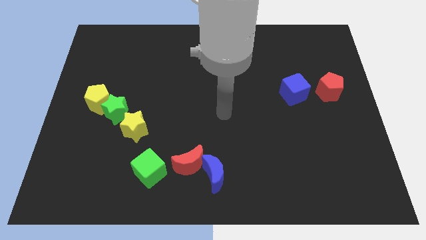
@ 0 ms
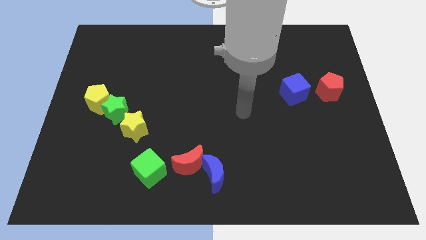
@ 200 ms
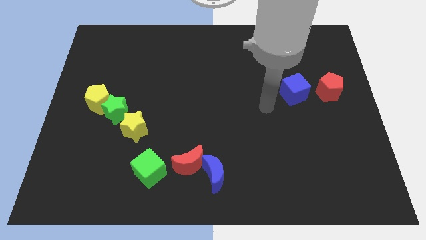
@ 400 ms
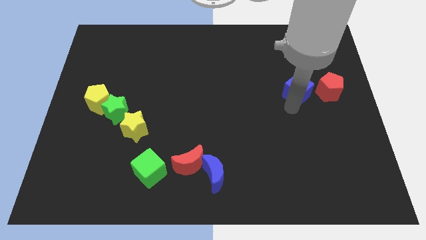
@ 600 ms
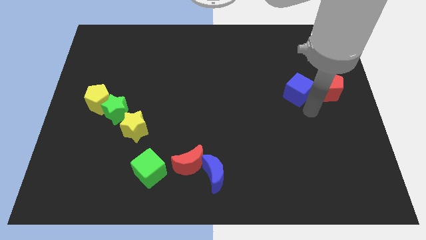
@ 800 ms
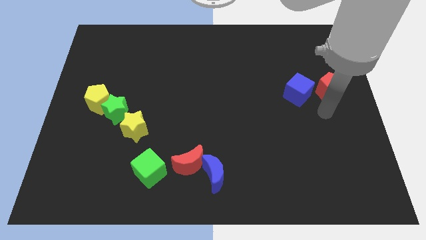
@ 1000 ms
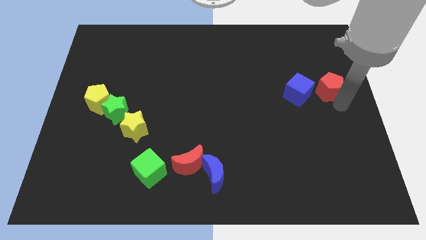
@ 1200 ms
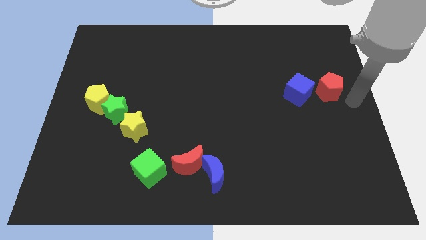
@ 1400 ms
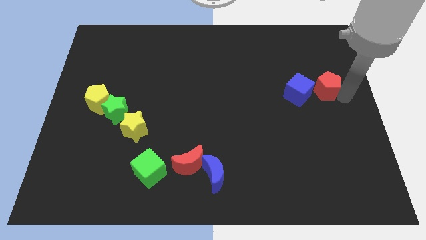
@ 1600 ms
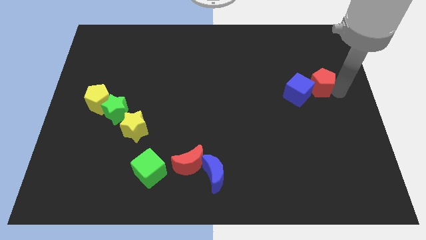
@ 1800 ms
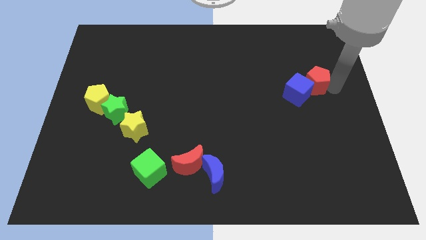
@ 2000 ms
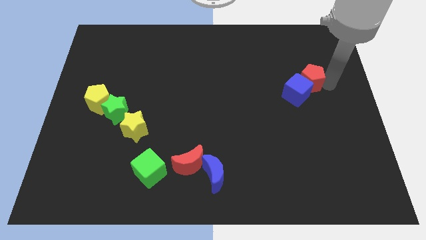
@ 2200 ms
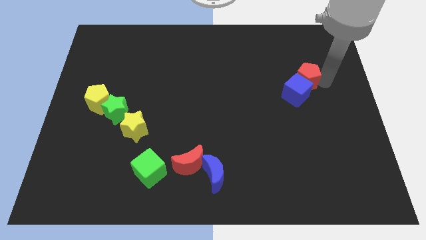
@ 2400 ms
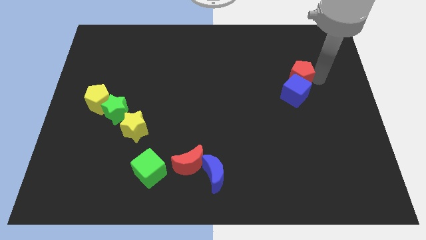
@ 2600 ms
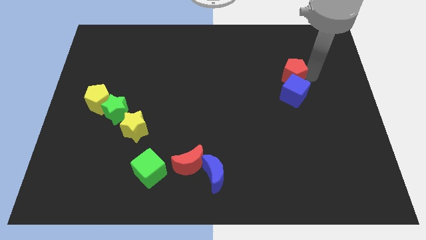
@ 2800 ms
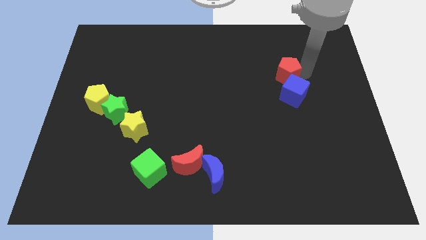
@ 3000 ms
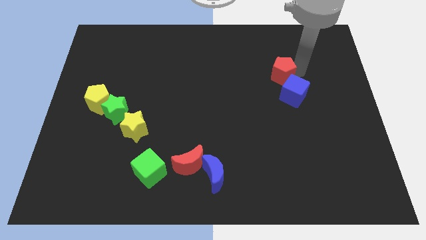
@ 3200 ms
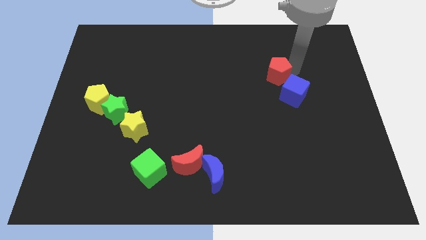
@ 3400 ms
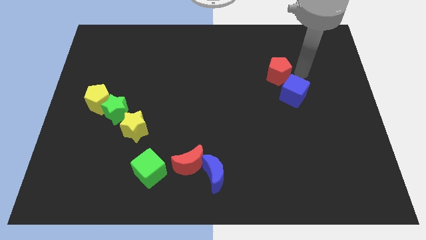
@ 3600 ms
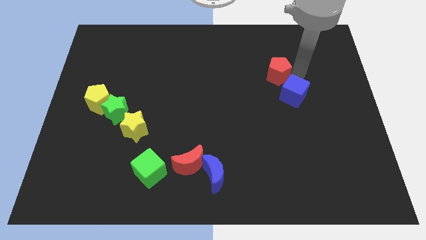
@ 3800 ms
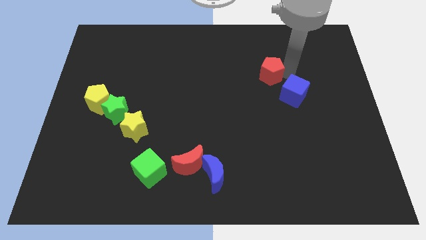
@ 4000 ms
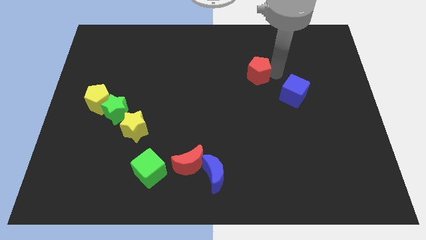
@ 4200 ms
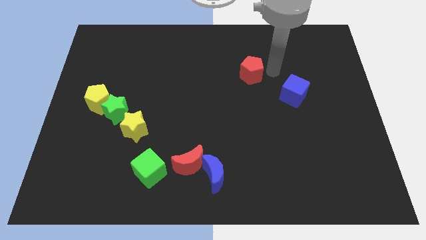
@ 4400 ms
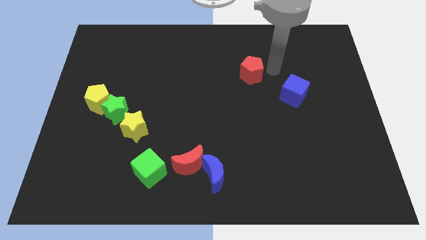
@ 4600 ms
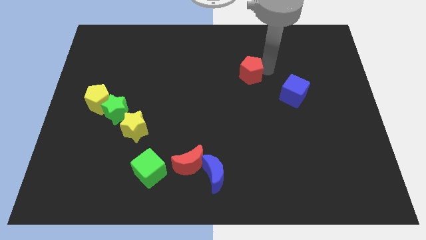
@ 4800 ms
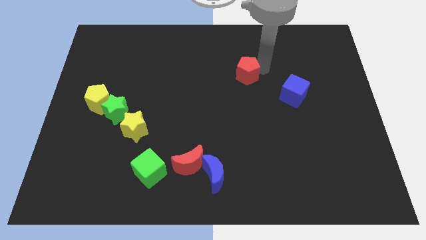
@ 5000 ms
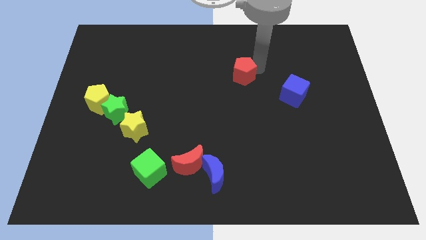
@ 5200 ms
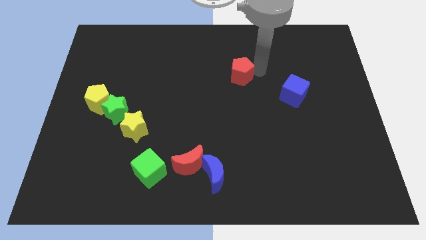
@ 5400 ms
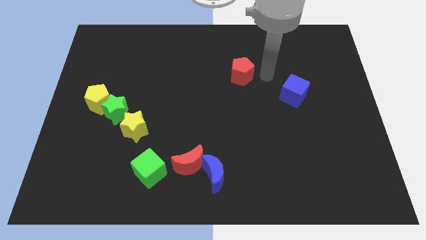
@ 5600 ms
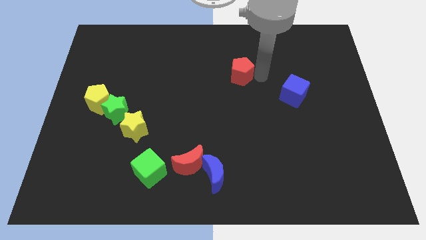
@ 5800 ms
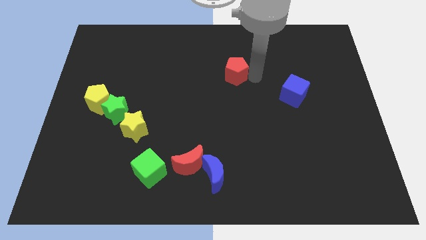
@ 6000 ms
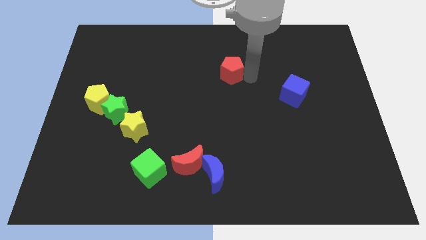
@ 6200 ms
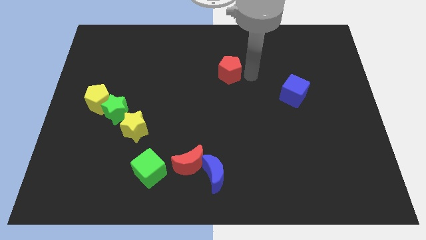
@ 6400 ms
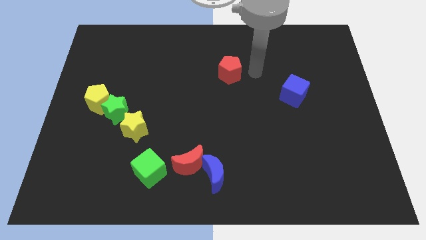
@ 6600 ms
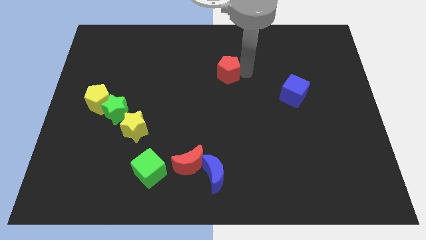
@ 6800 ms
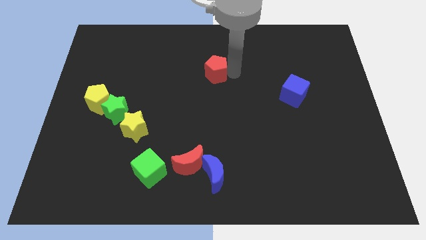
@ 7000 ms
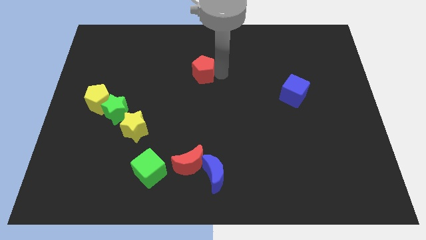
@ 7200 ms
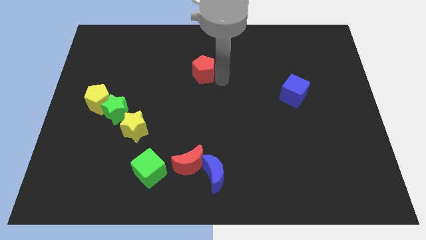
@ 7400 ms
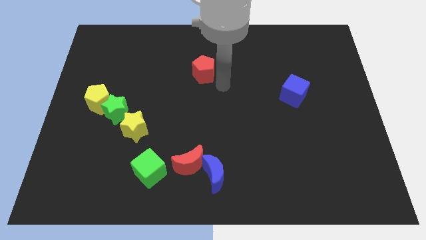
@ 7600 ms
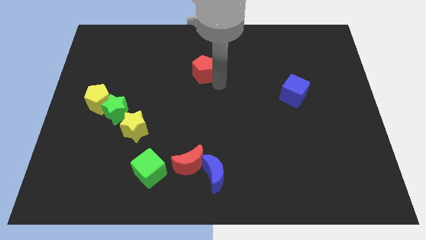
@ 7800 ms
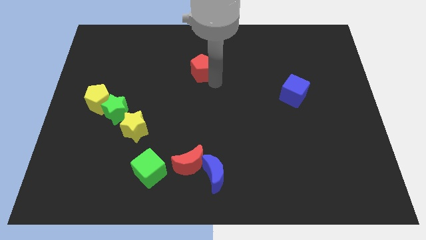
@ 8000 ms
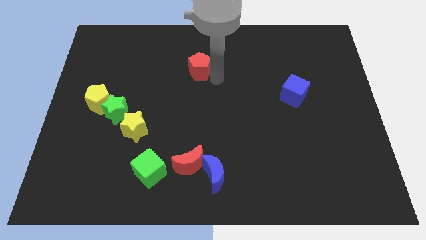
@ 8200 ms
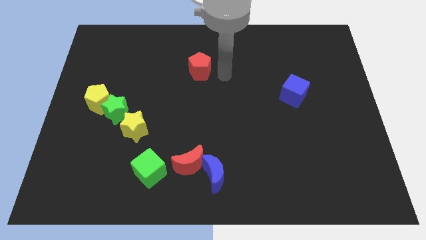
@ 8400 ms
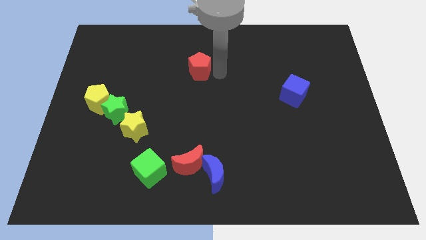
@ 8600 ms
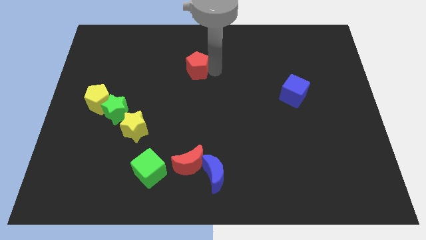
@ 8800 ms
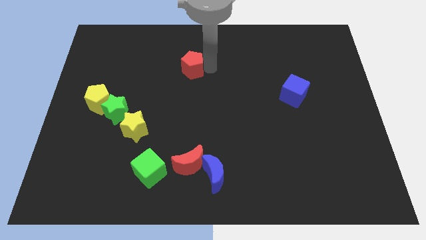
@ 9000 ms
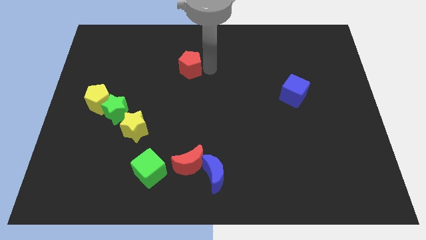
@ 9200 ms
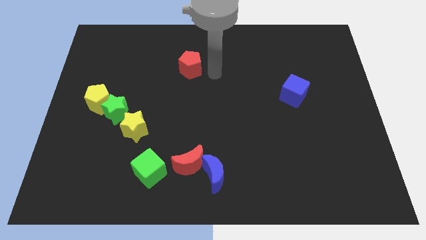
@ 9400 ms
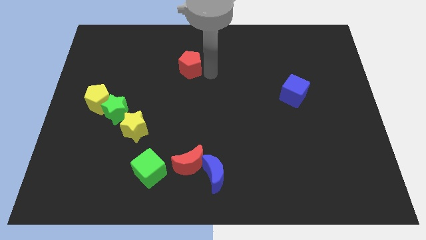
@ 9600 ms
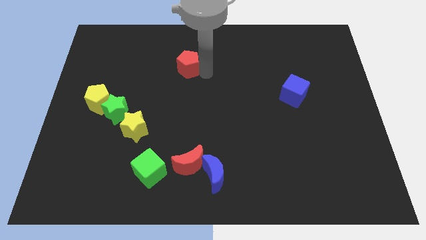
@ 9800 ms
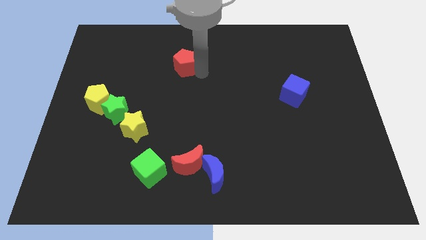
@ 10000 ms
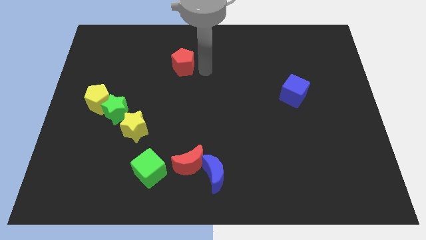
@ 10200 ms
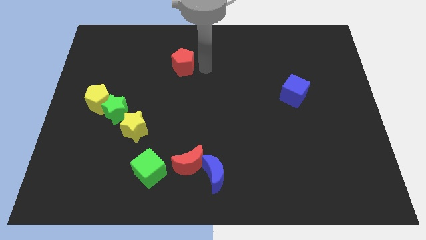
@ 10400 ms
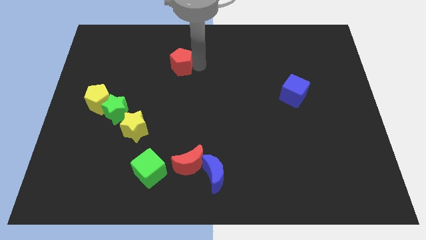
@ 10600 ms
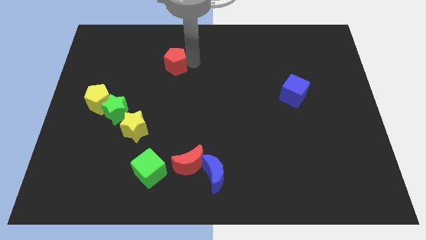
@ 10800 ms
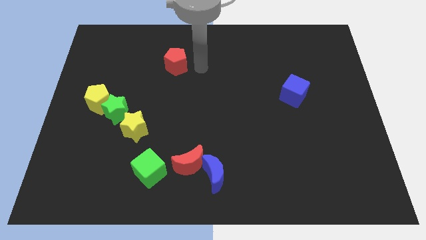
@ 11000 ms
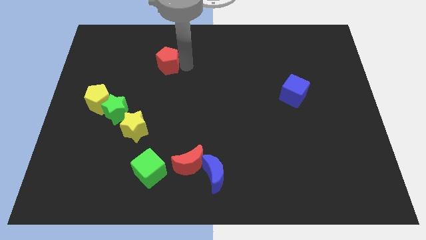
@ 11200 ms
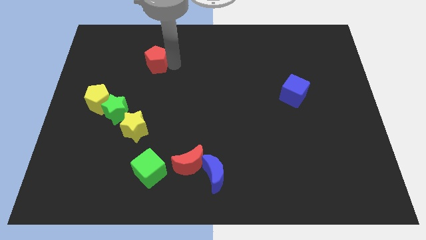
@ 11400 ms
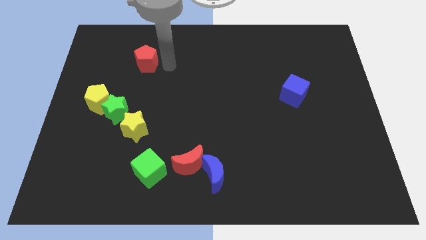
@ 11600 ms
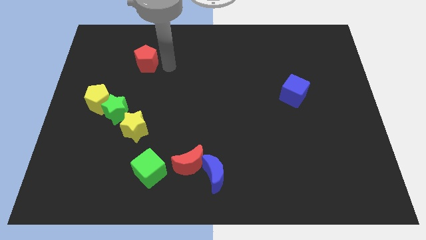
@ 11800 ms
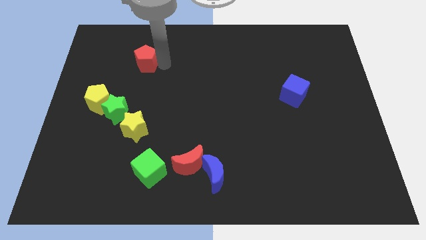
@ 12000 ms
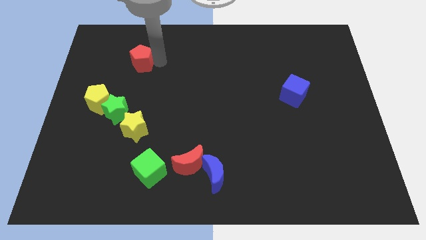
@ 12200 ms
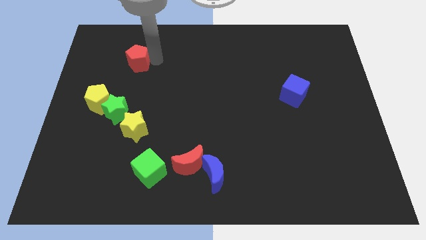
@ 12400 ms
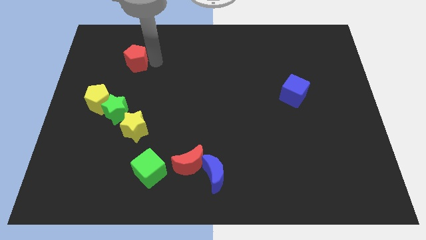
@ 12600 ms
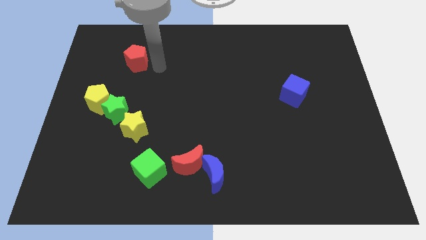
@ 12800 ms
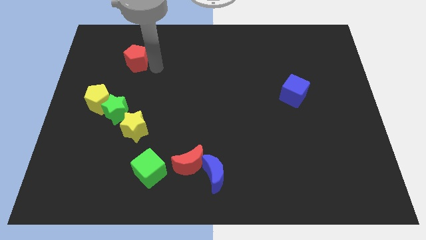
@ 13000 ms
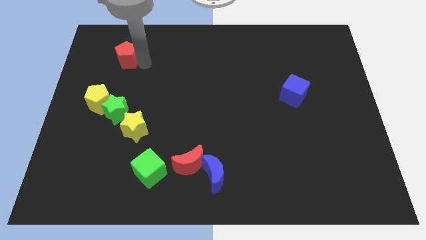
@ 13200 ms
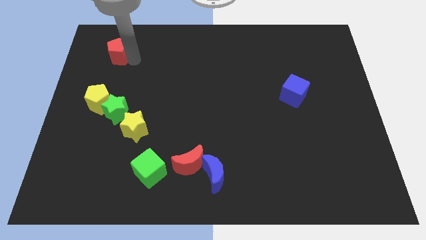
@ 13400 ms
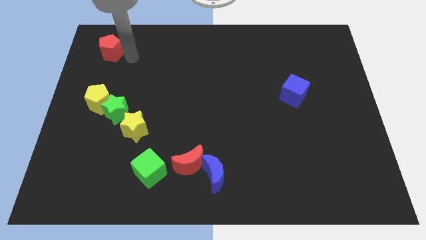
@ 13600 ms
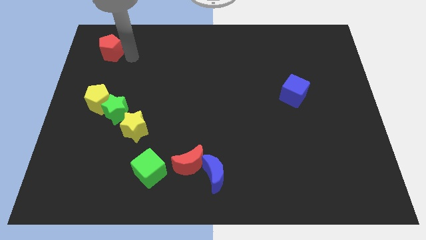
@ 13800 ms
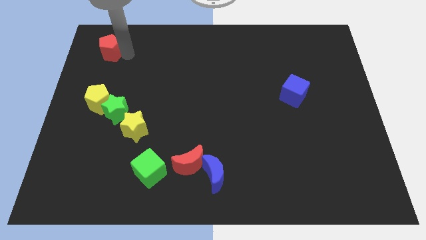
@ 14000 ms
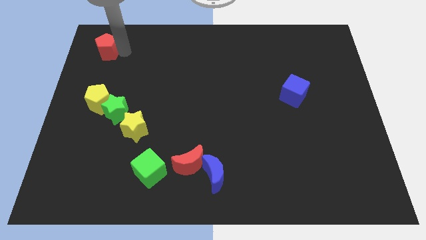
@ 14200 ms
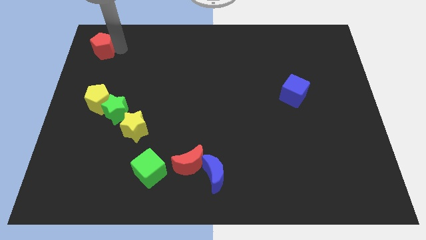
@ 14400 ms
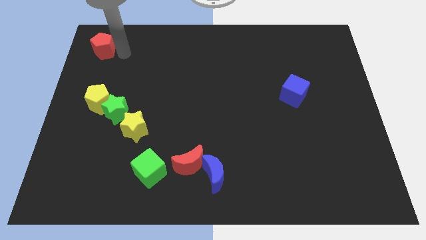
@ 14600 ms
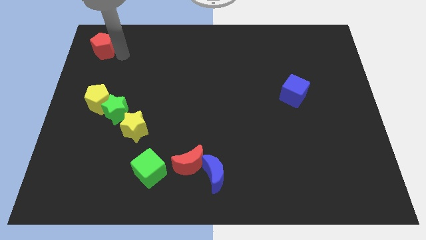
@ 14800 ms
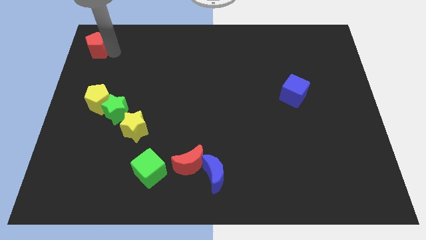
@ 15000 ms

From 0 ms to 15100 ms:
push the red pentagon to the top left
